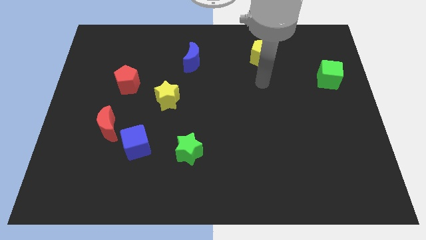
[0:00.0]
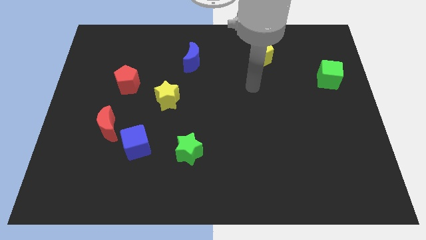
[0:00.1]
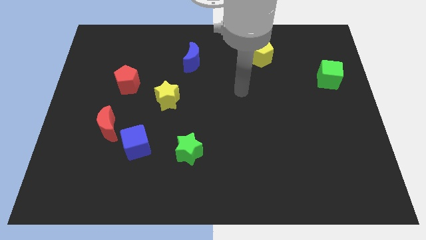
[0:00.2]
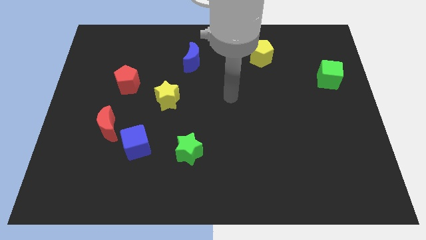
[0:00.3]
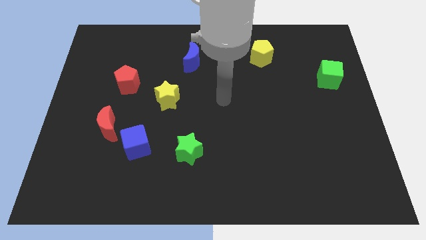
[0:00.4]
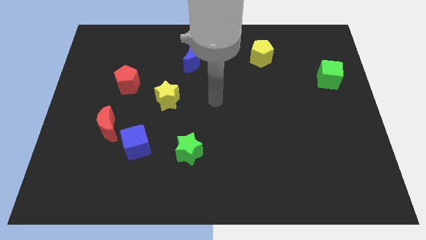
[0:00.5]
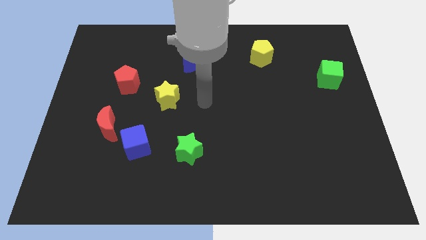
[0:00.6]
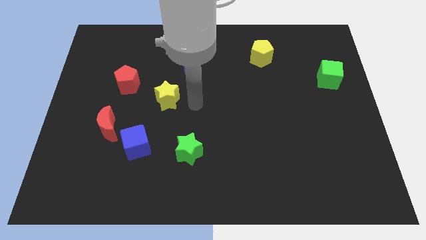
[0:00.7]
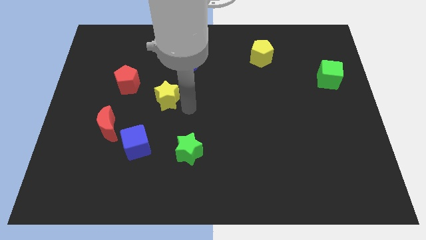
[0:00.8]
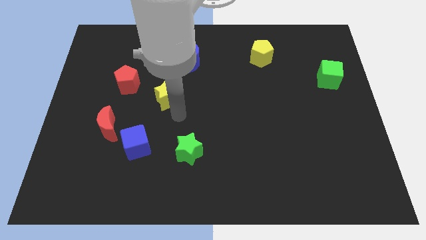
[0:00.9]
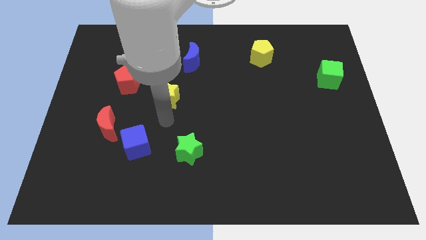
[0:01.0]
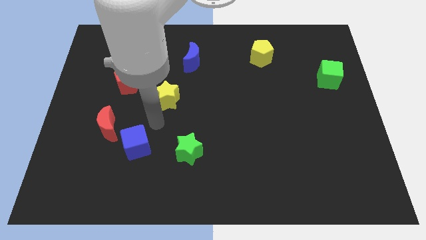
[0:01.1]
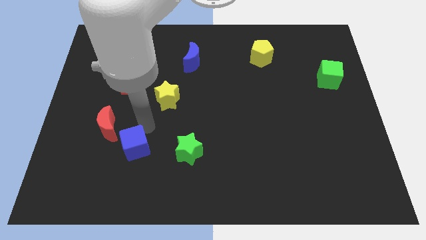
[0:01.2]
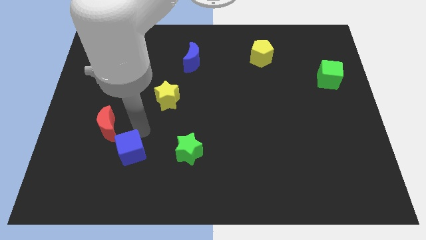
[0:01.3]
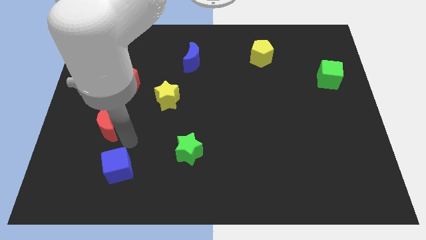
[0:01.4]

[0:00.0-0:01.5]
move the red moon away from the blue cube

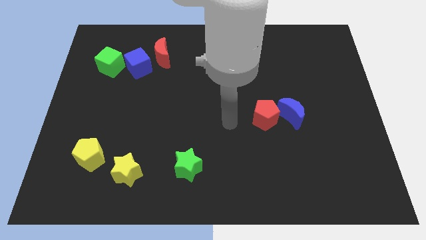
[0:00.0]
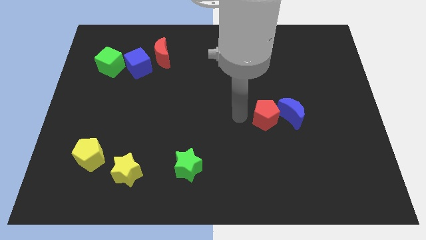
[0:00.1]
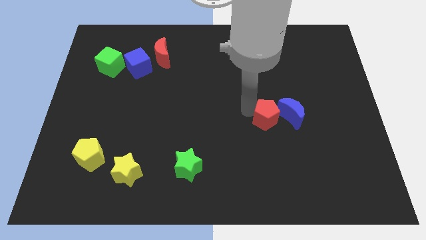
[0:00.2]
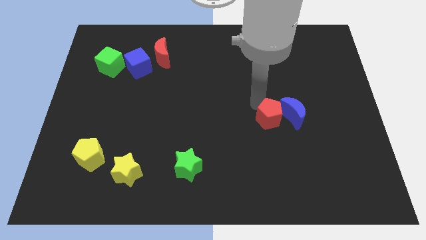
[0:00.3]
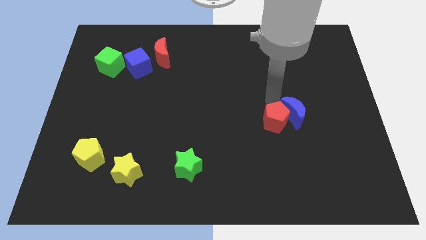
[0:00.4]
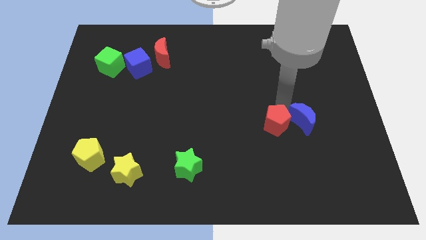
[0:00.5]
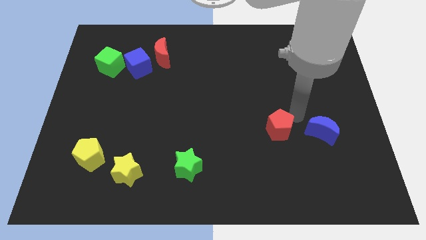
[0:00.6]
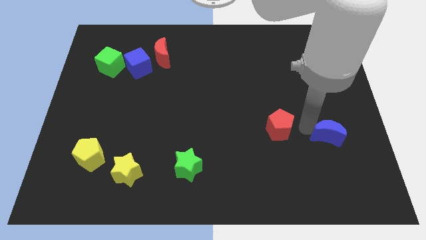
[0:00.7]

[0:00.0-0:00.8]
move the red pentagon away from the blue moon

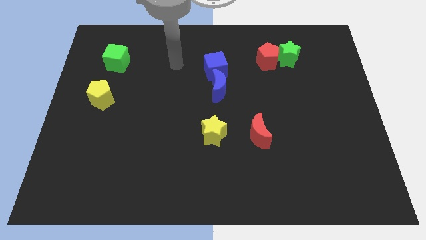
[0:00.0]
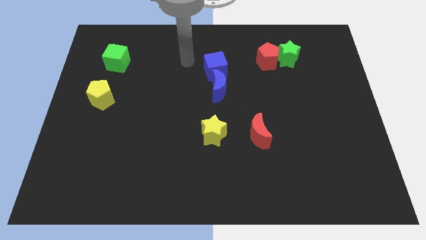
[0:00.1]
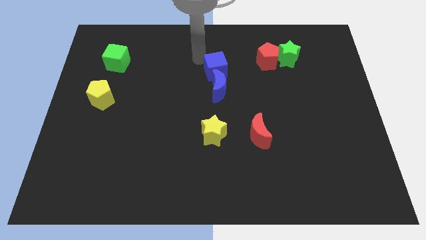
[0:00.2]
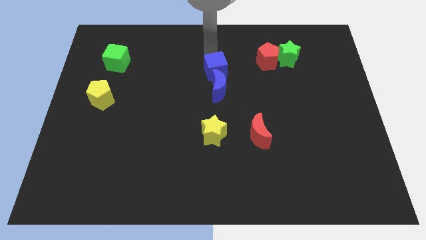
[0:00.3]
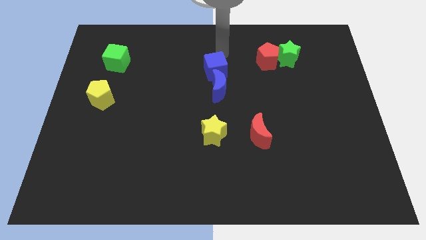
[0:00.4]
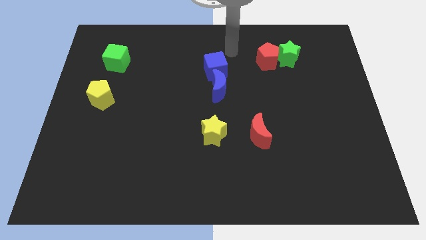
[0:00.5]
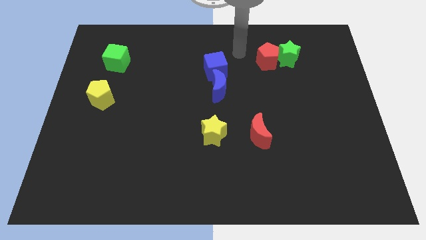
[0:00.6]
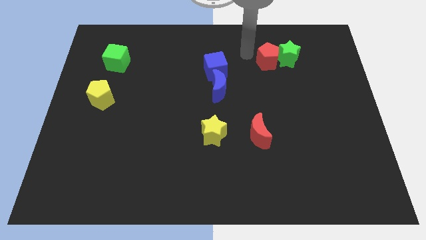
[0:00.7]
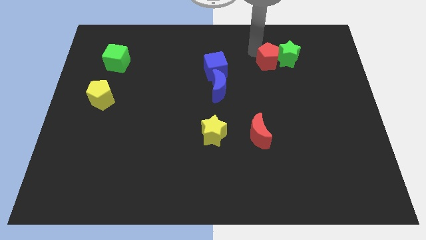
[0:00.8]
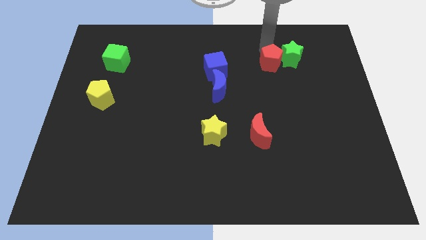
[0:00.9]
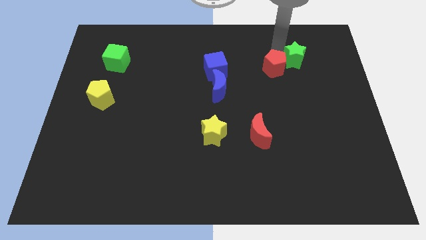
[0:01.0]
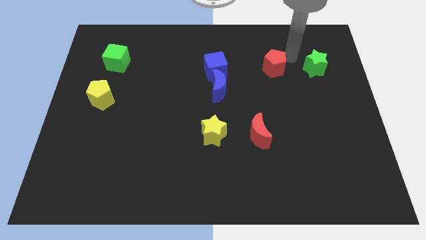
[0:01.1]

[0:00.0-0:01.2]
pull the red pentagon apart from the green star

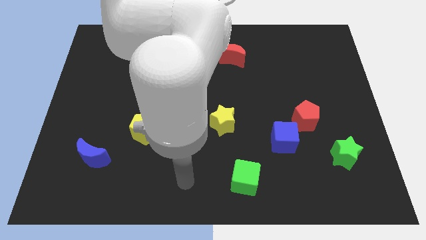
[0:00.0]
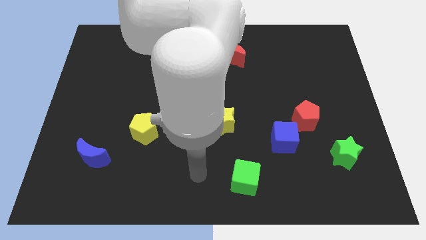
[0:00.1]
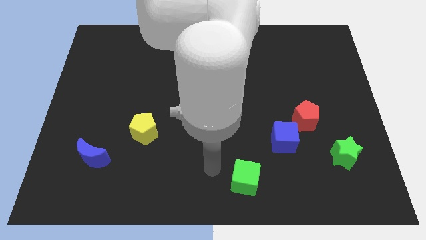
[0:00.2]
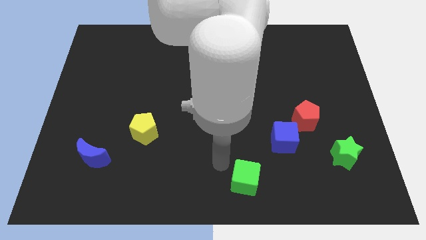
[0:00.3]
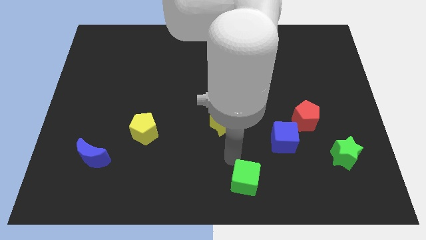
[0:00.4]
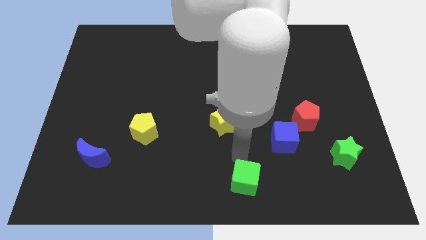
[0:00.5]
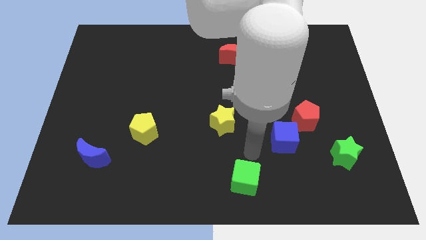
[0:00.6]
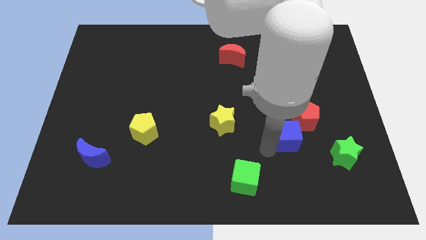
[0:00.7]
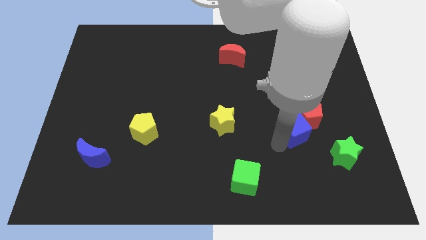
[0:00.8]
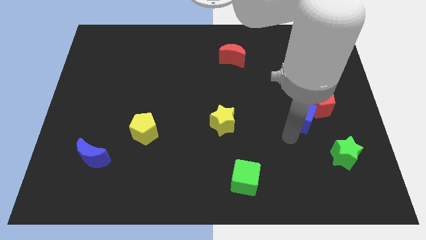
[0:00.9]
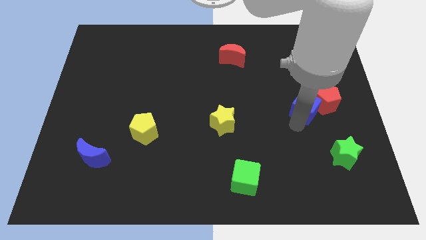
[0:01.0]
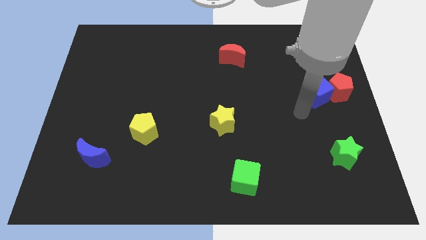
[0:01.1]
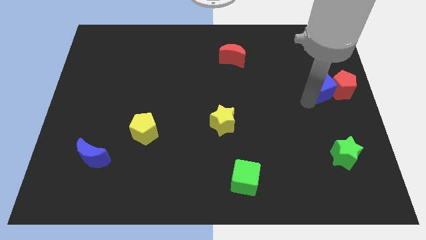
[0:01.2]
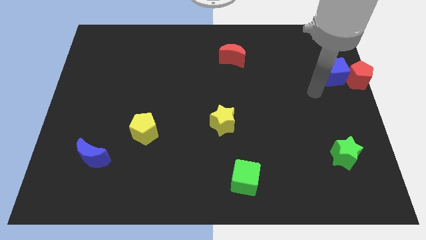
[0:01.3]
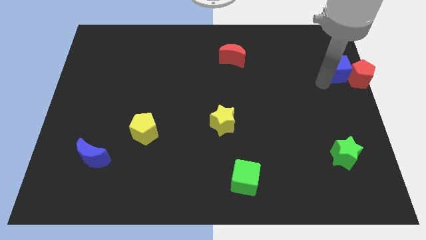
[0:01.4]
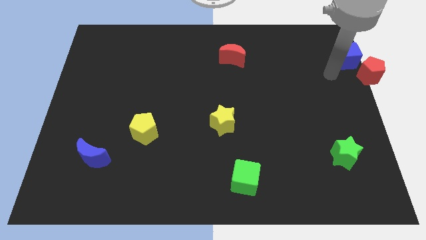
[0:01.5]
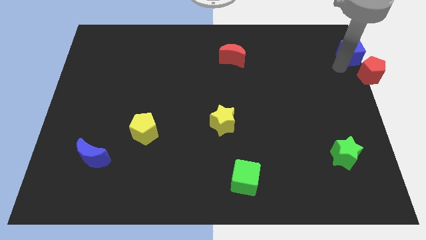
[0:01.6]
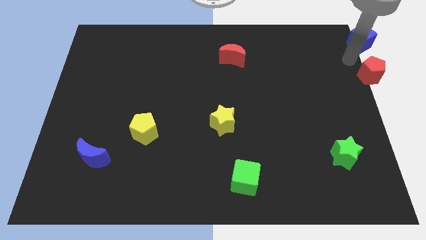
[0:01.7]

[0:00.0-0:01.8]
move the red pentagon away from the blue cube

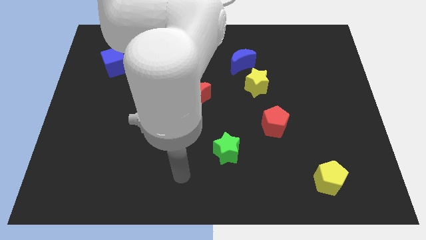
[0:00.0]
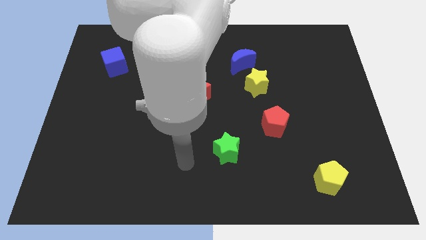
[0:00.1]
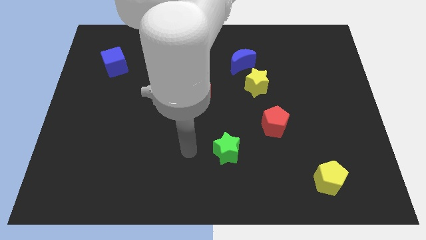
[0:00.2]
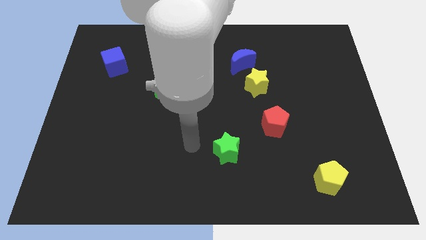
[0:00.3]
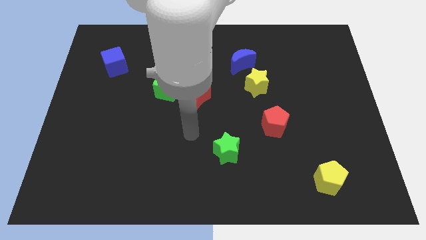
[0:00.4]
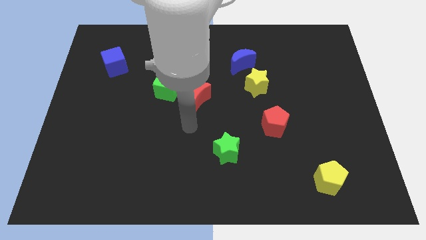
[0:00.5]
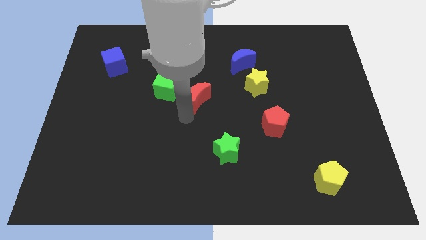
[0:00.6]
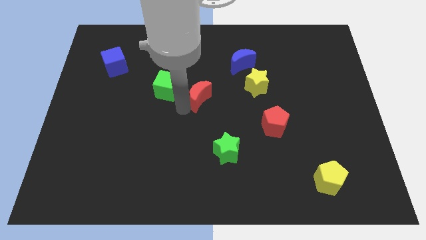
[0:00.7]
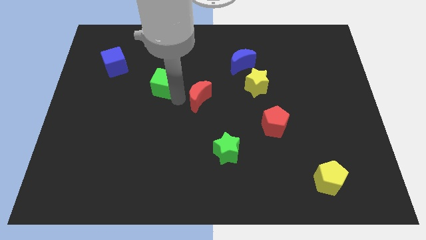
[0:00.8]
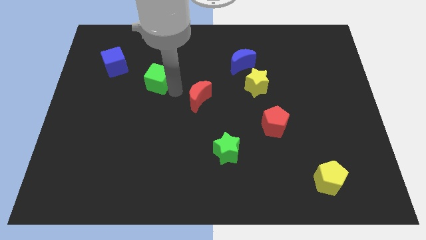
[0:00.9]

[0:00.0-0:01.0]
pull the red moon apart from the green cube

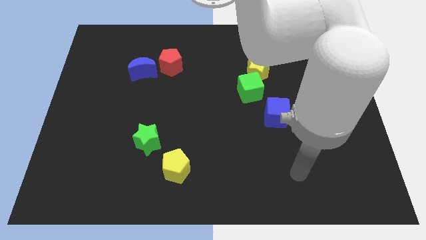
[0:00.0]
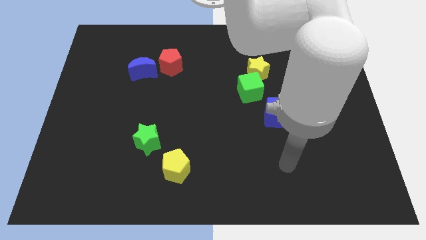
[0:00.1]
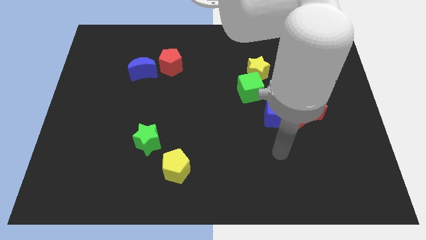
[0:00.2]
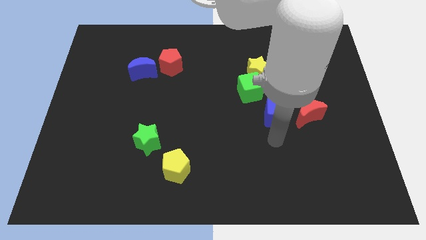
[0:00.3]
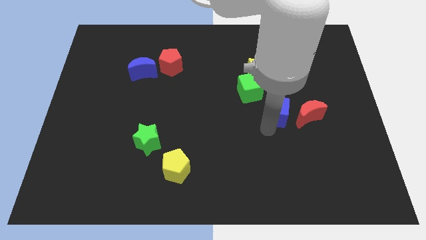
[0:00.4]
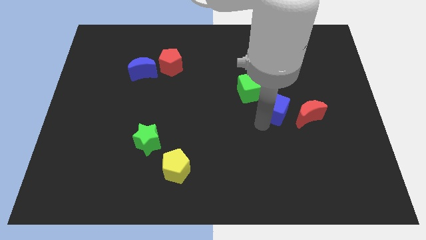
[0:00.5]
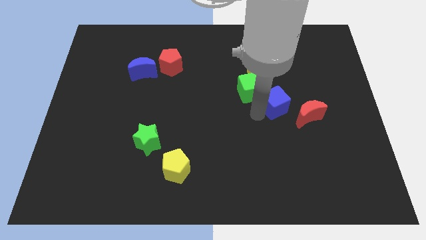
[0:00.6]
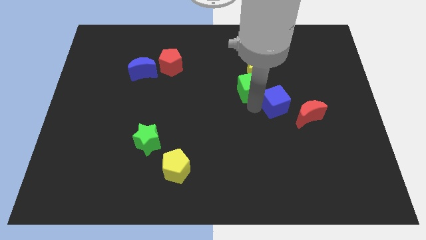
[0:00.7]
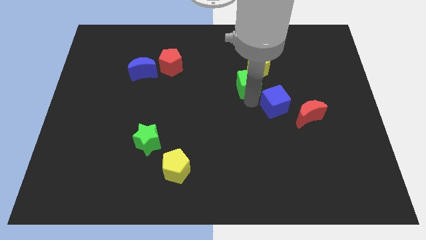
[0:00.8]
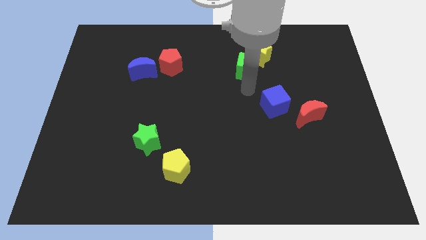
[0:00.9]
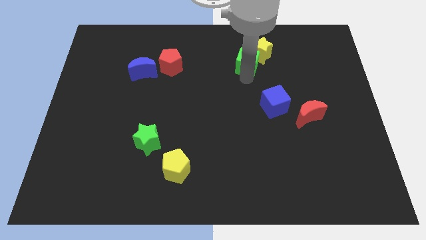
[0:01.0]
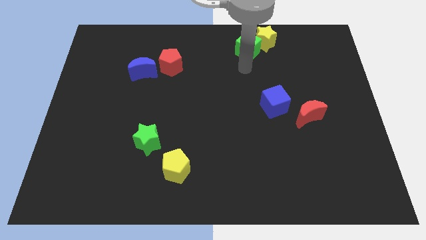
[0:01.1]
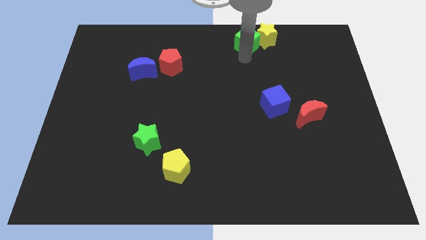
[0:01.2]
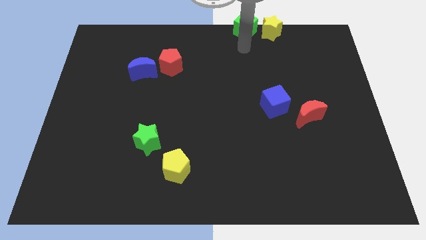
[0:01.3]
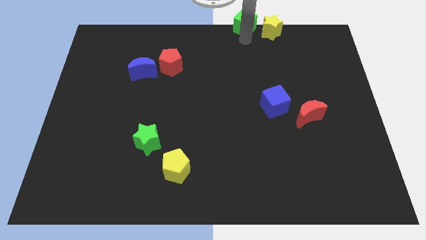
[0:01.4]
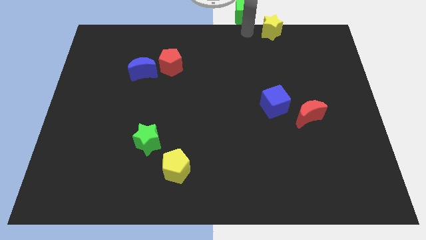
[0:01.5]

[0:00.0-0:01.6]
pull the yellow star apart from the green cube

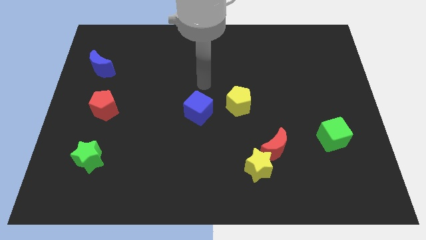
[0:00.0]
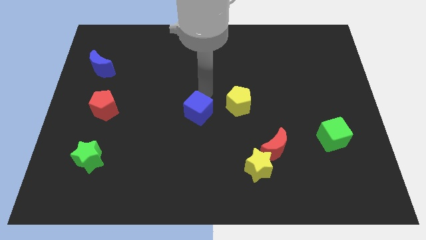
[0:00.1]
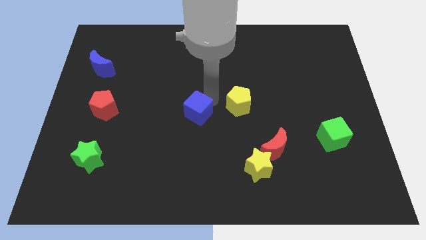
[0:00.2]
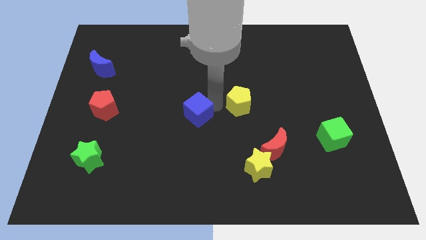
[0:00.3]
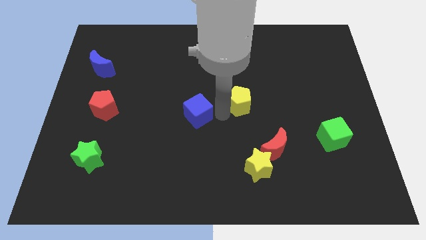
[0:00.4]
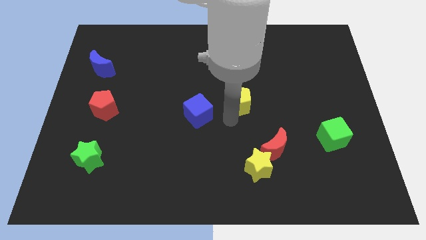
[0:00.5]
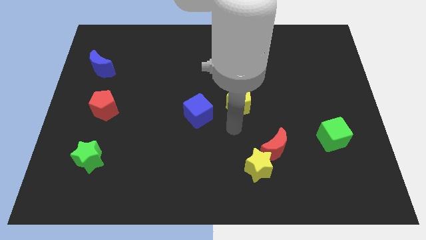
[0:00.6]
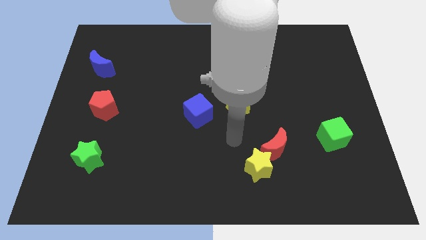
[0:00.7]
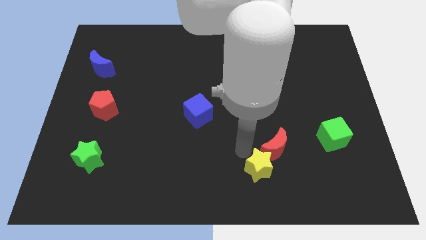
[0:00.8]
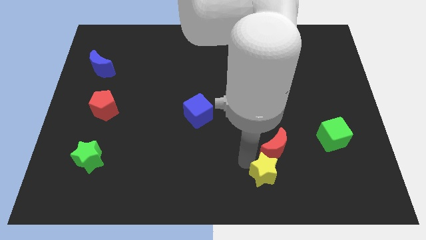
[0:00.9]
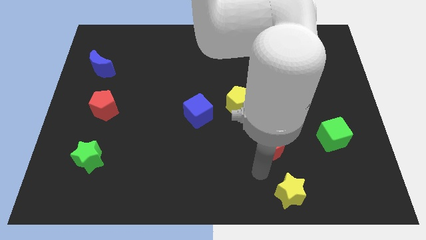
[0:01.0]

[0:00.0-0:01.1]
pull the red moon apart from the yellow star

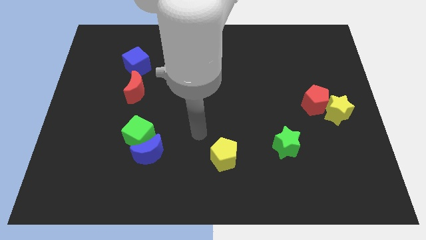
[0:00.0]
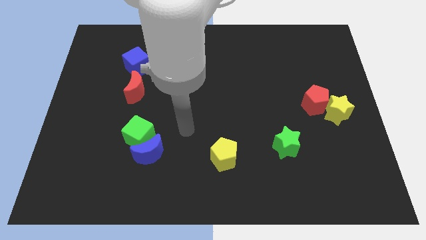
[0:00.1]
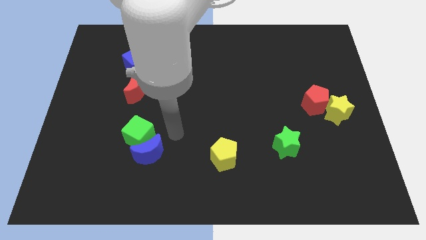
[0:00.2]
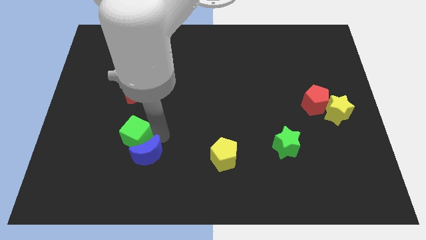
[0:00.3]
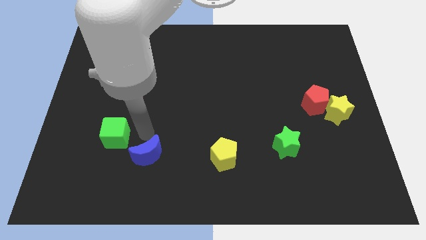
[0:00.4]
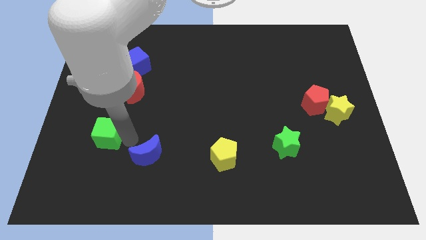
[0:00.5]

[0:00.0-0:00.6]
separate the blue moon from the green cube
